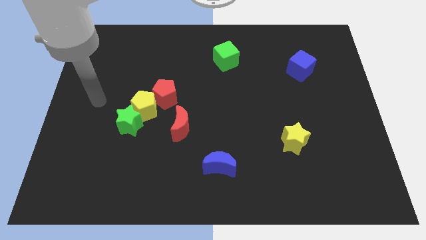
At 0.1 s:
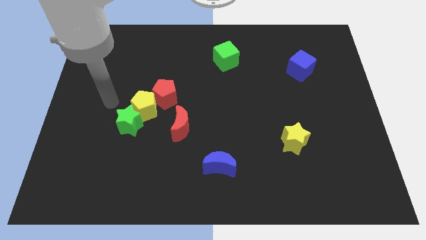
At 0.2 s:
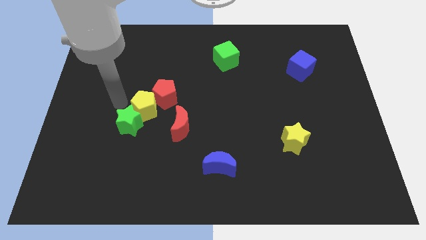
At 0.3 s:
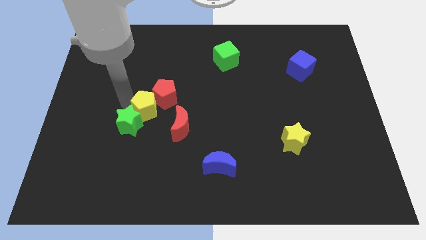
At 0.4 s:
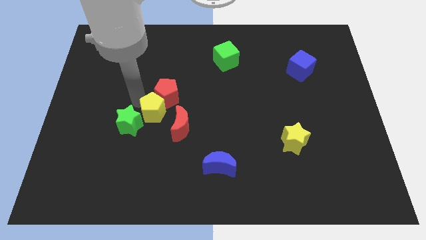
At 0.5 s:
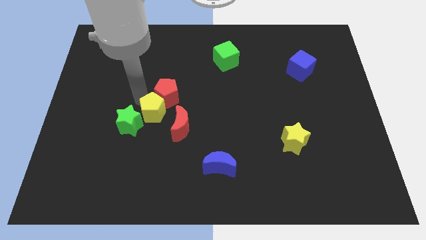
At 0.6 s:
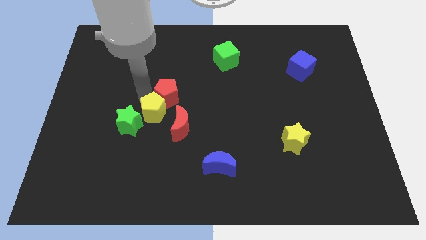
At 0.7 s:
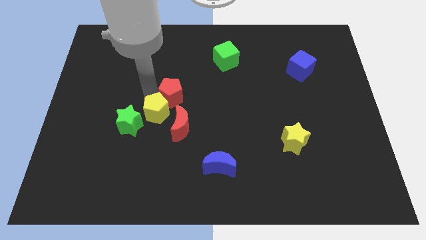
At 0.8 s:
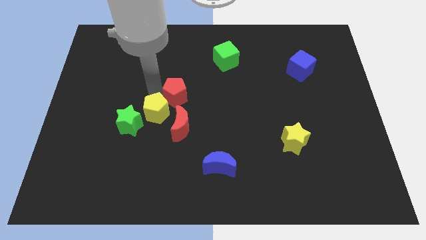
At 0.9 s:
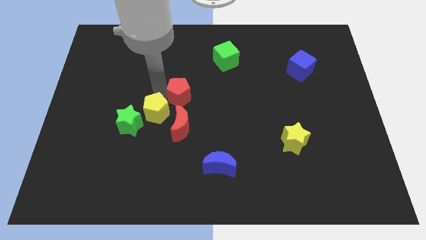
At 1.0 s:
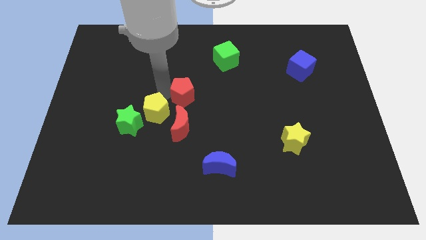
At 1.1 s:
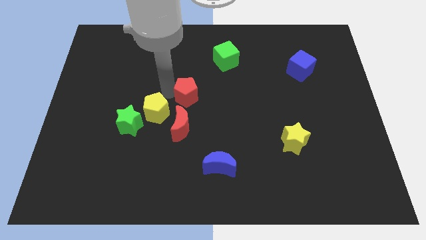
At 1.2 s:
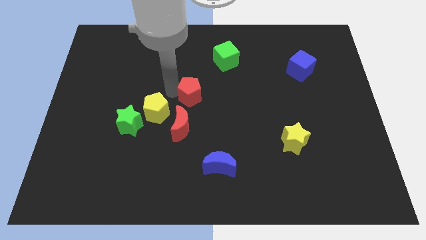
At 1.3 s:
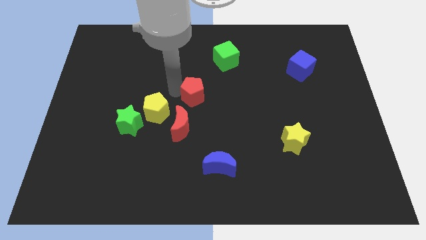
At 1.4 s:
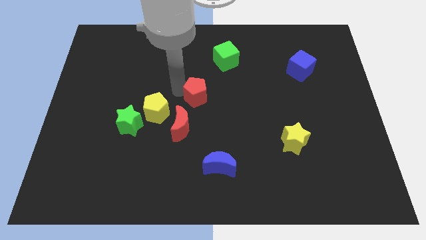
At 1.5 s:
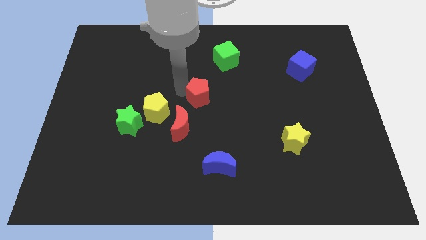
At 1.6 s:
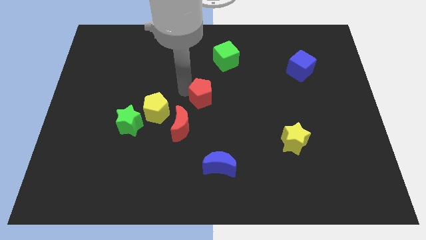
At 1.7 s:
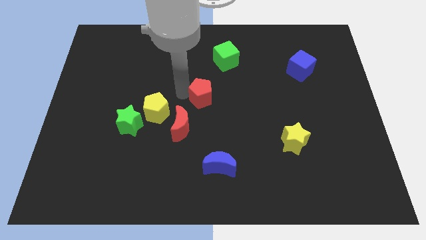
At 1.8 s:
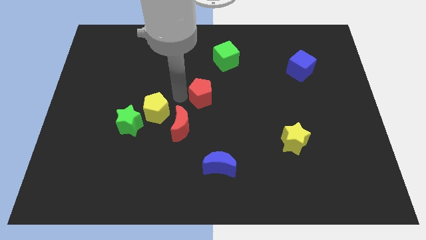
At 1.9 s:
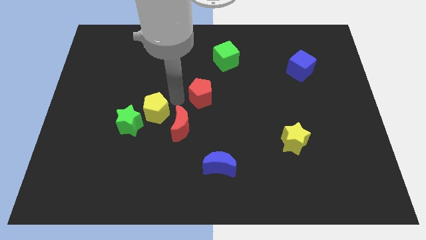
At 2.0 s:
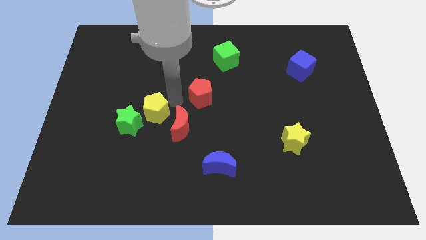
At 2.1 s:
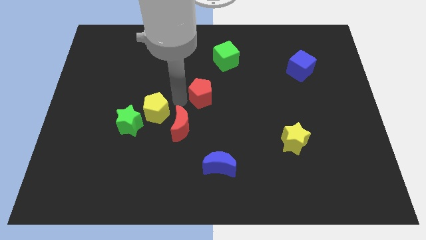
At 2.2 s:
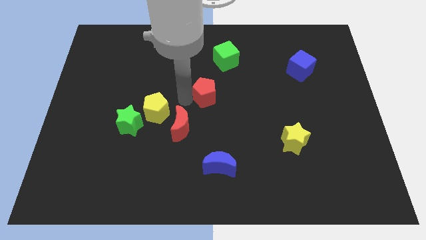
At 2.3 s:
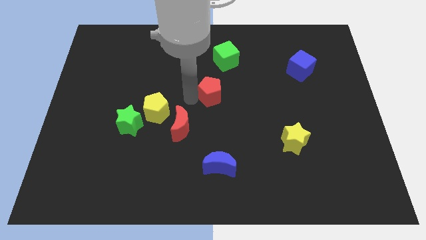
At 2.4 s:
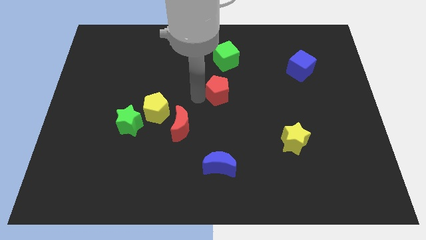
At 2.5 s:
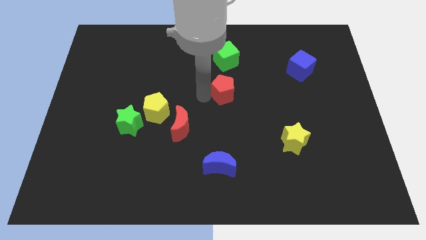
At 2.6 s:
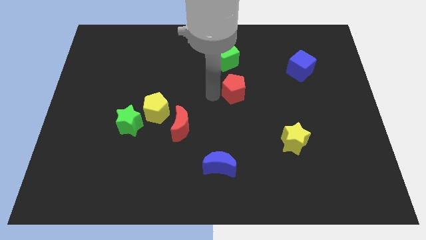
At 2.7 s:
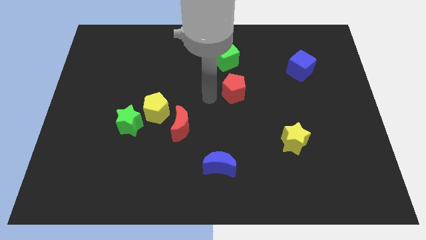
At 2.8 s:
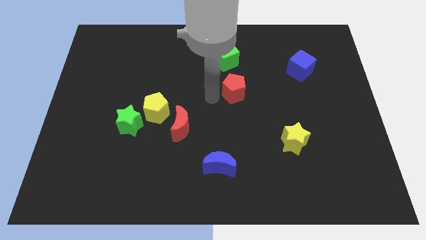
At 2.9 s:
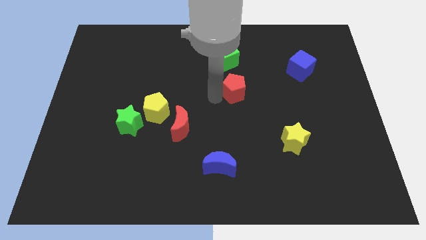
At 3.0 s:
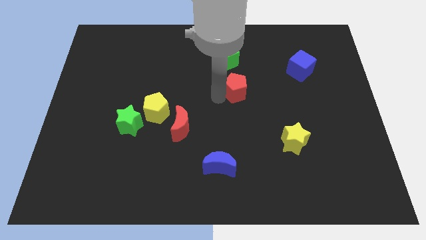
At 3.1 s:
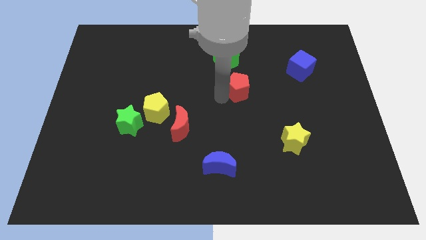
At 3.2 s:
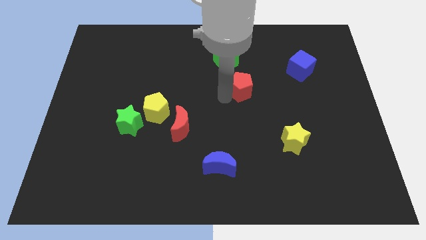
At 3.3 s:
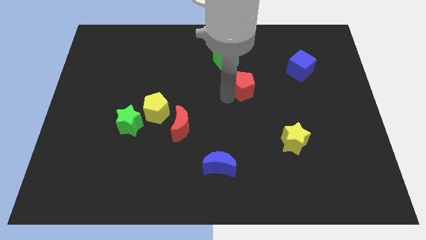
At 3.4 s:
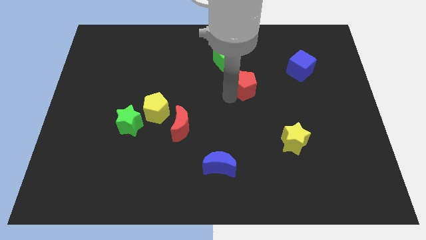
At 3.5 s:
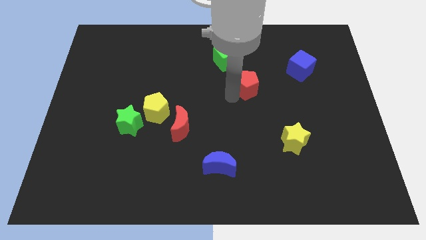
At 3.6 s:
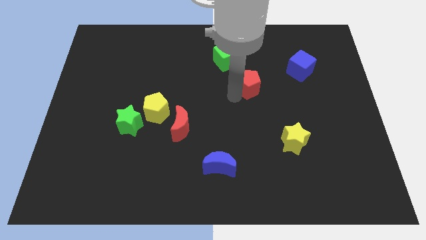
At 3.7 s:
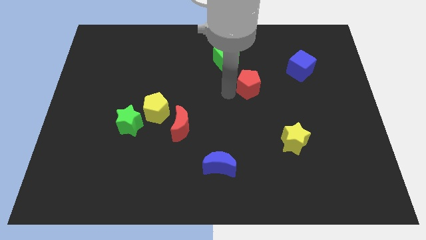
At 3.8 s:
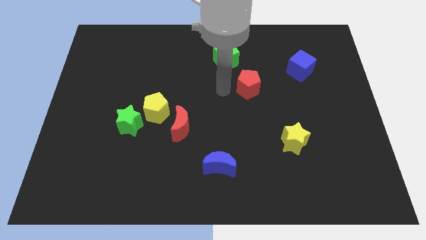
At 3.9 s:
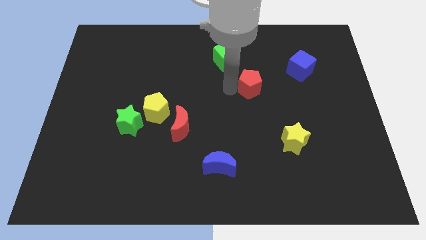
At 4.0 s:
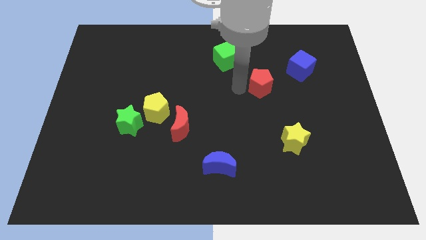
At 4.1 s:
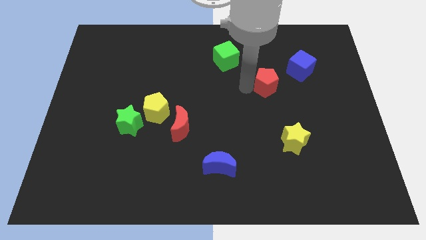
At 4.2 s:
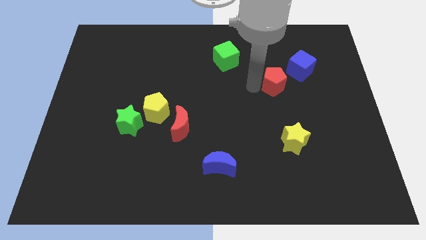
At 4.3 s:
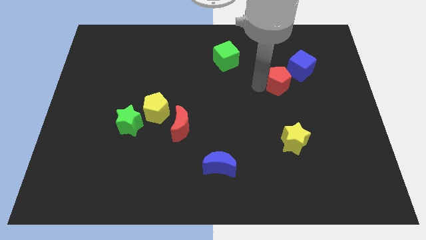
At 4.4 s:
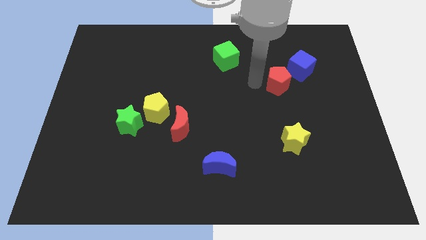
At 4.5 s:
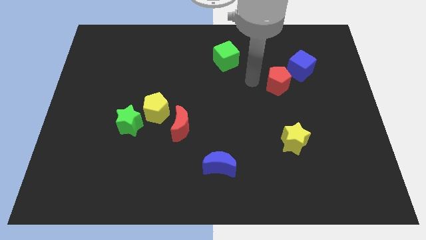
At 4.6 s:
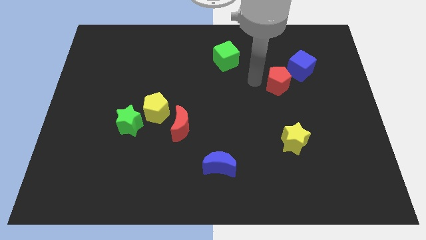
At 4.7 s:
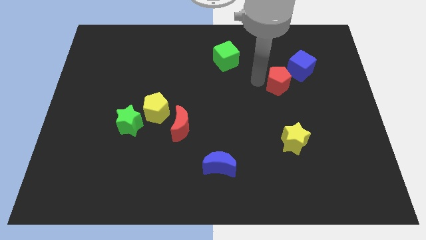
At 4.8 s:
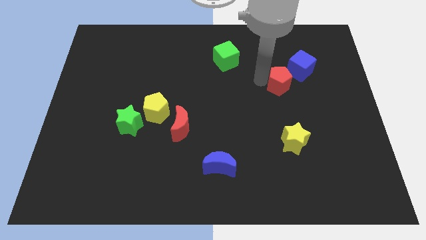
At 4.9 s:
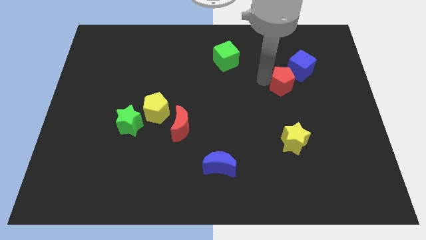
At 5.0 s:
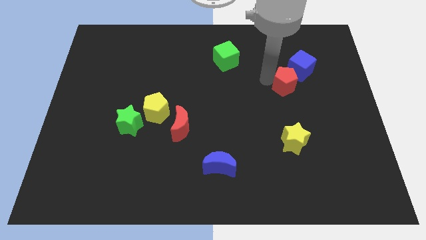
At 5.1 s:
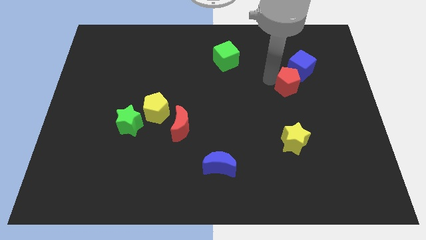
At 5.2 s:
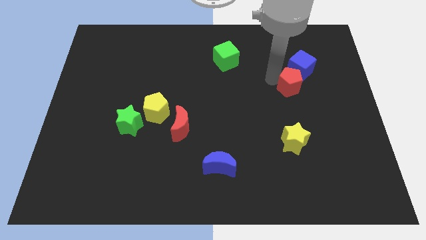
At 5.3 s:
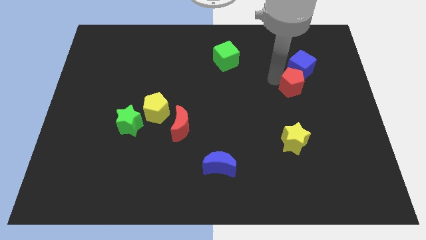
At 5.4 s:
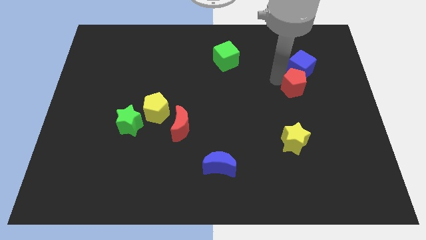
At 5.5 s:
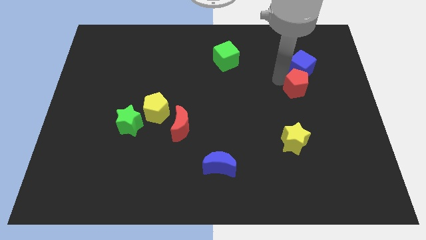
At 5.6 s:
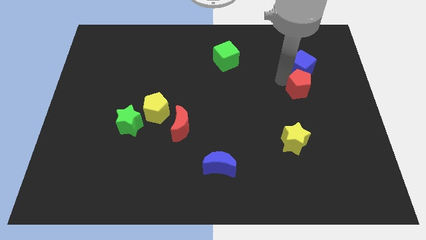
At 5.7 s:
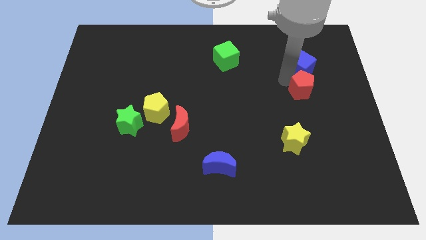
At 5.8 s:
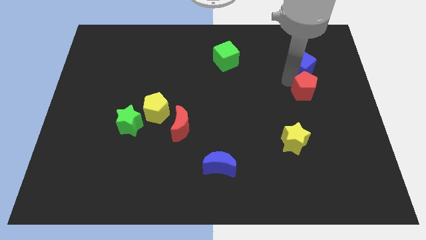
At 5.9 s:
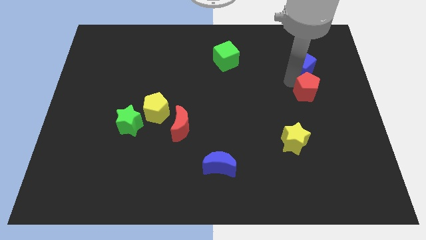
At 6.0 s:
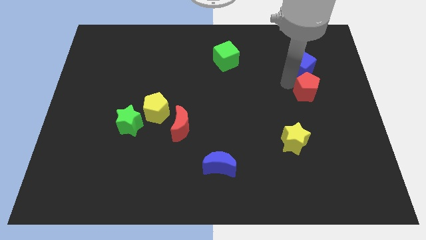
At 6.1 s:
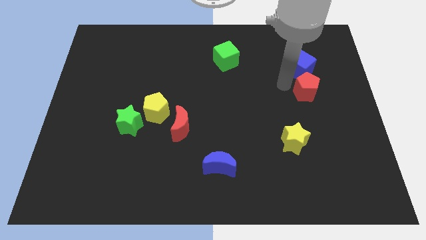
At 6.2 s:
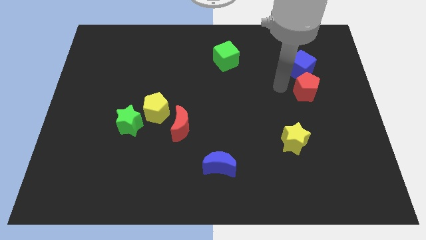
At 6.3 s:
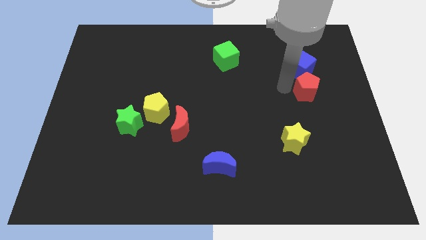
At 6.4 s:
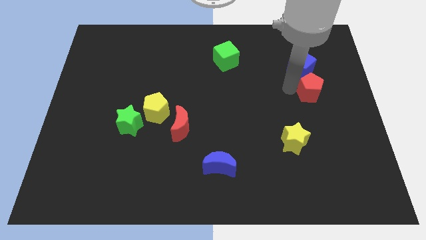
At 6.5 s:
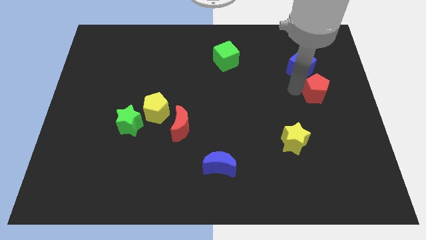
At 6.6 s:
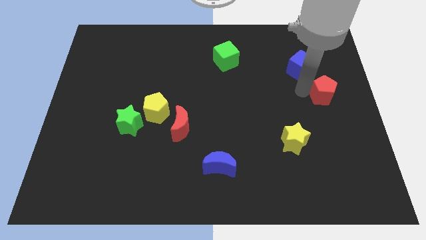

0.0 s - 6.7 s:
slide the red pentagon to the center right
